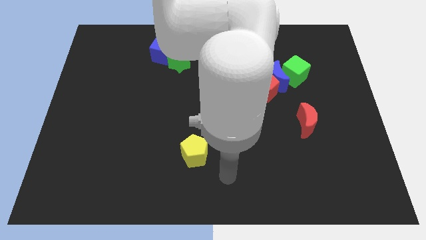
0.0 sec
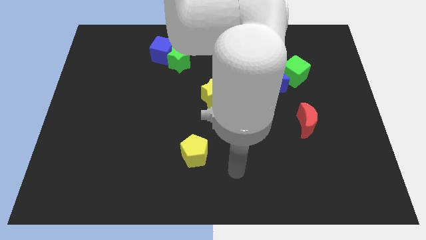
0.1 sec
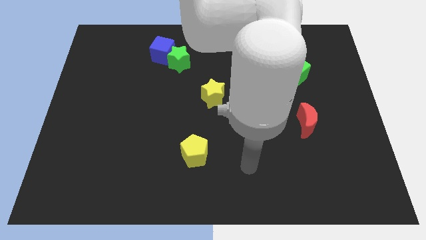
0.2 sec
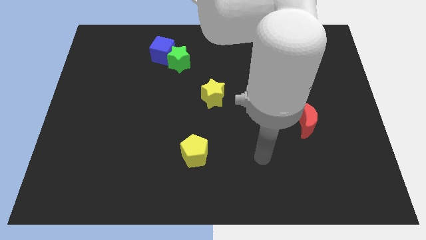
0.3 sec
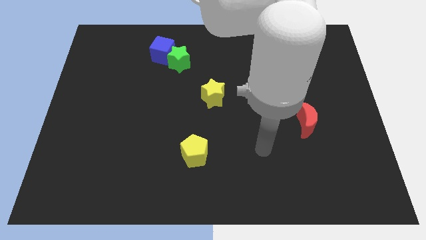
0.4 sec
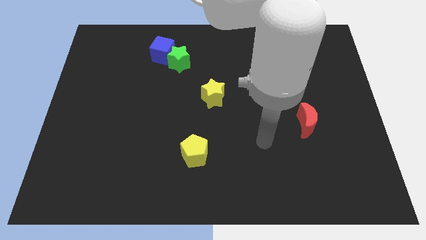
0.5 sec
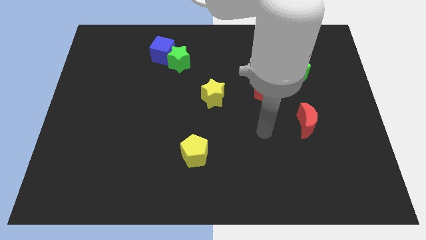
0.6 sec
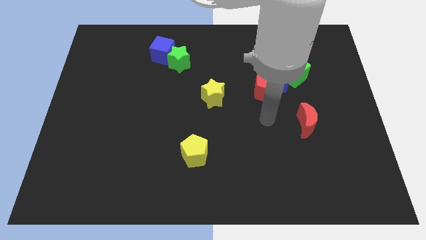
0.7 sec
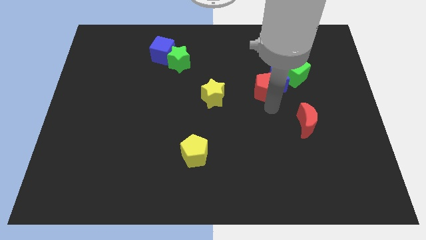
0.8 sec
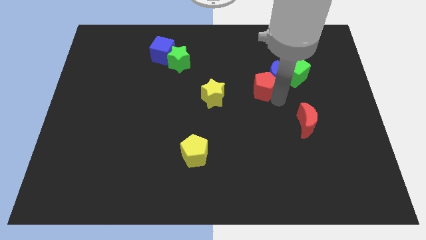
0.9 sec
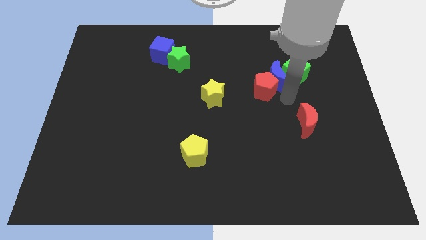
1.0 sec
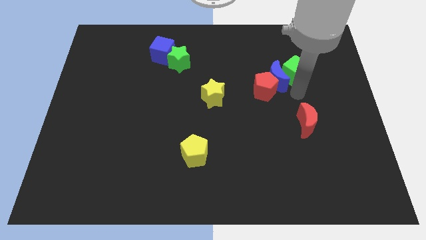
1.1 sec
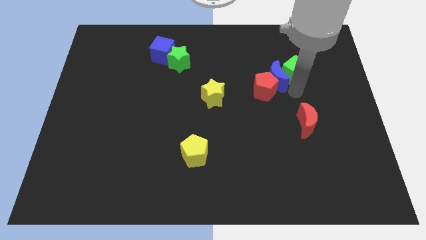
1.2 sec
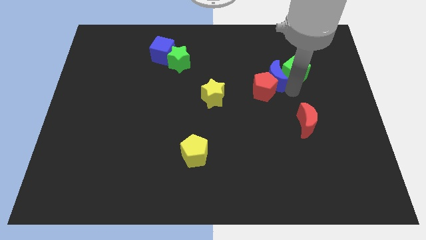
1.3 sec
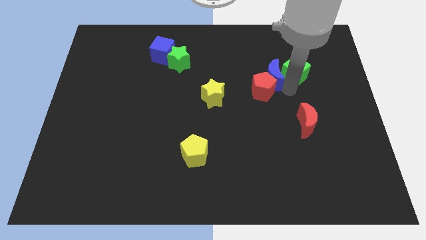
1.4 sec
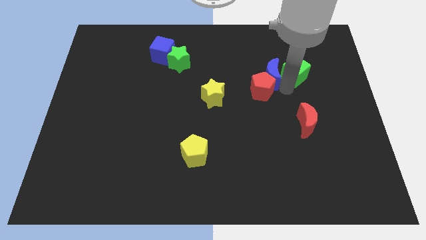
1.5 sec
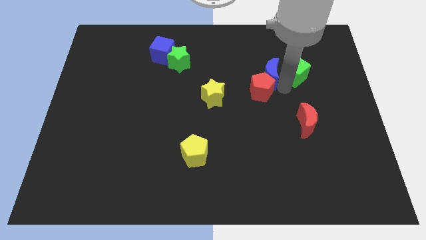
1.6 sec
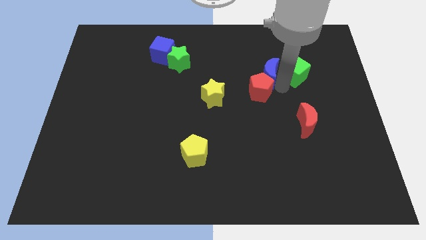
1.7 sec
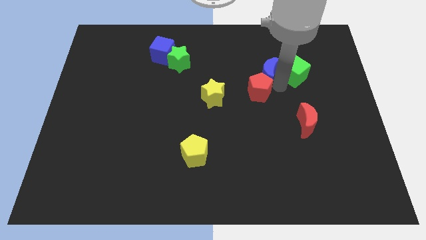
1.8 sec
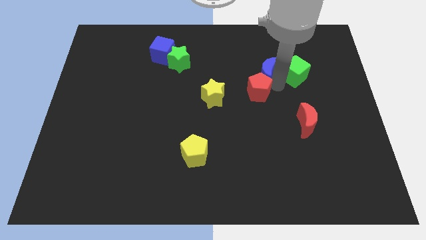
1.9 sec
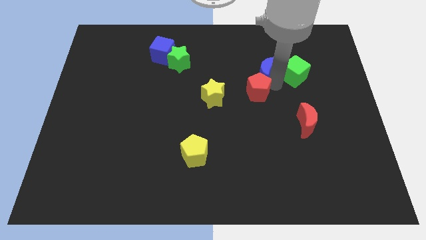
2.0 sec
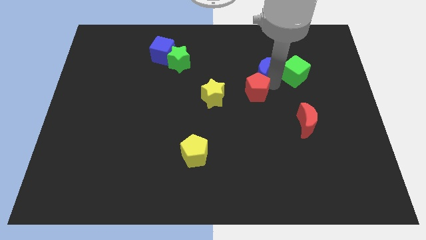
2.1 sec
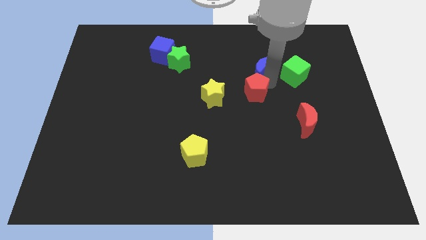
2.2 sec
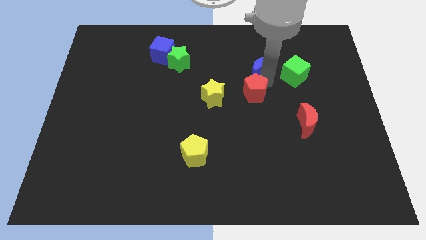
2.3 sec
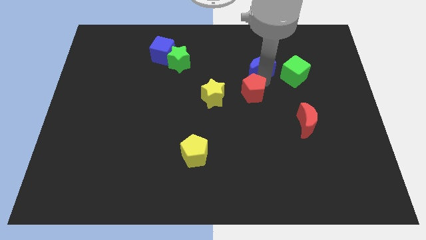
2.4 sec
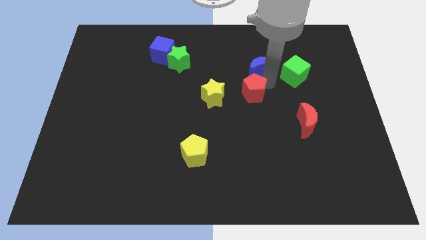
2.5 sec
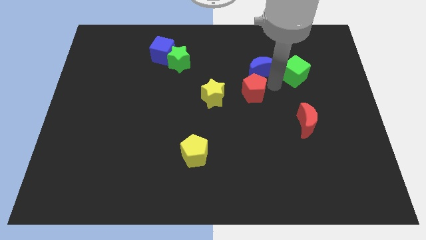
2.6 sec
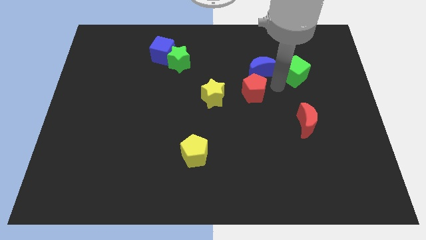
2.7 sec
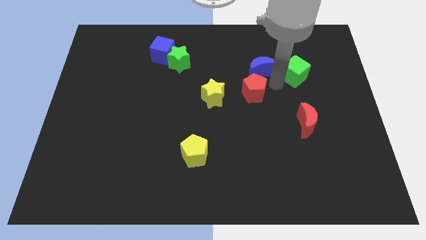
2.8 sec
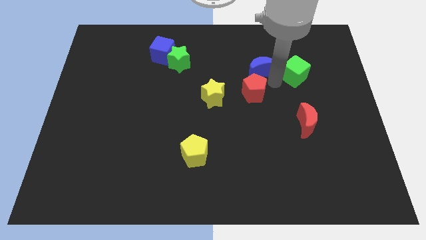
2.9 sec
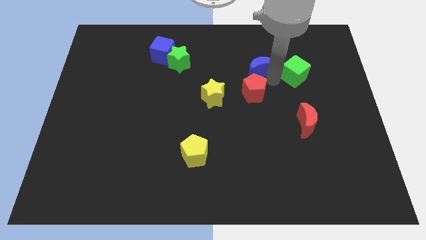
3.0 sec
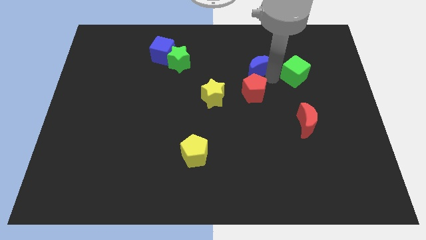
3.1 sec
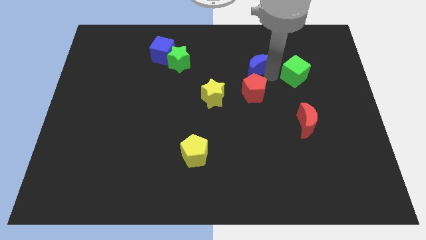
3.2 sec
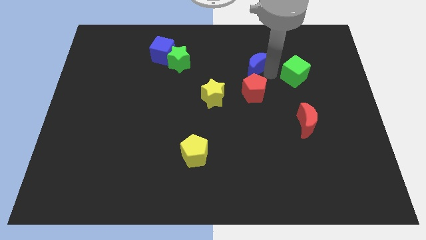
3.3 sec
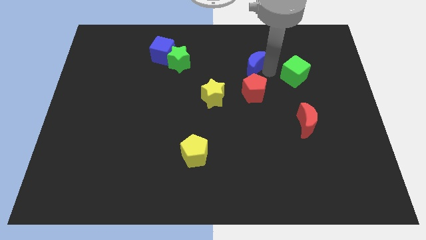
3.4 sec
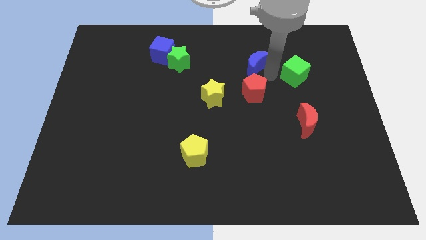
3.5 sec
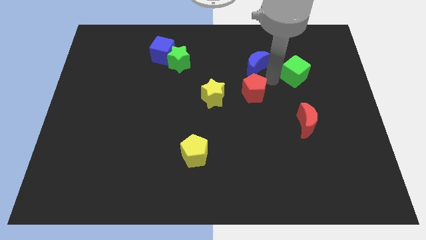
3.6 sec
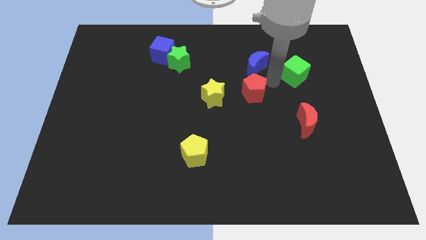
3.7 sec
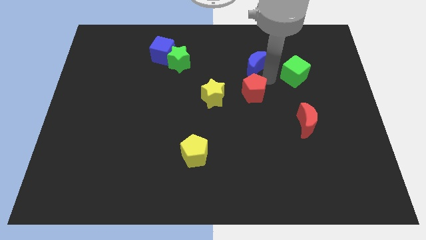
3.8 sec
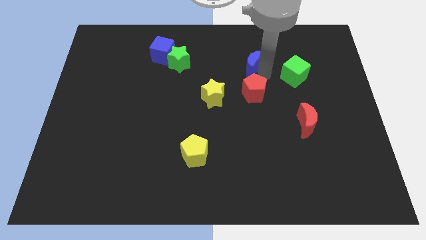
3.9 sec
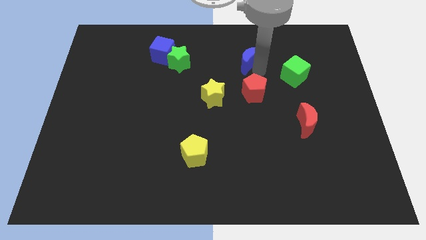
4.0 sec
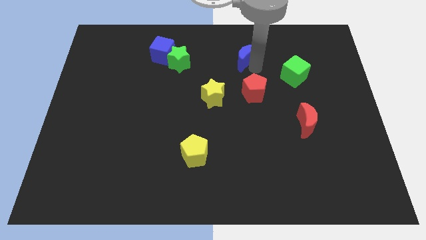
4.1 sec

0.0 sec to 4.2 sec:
move the blue moon away from the red pentagon and green cube

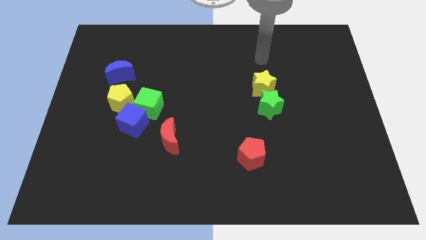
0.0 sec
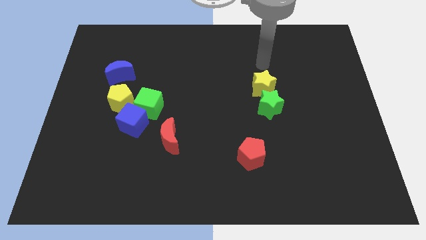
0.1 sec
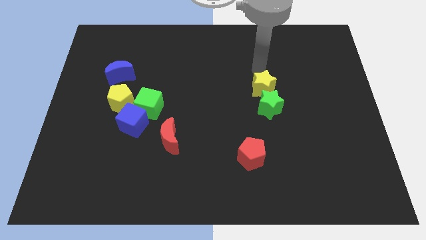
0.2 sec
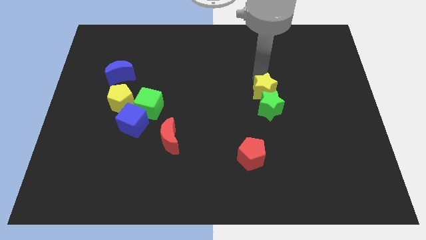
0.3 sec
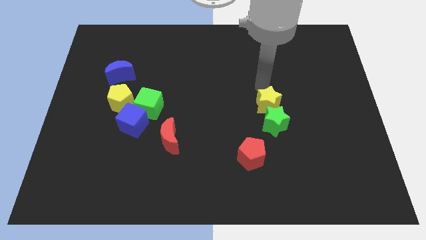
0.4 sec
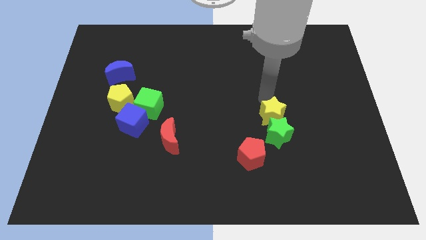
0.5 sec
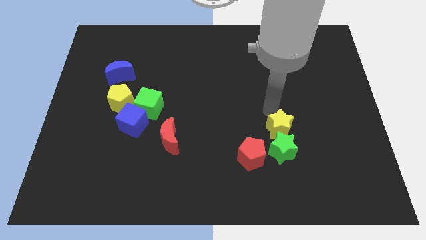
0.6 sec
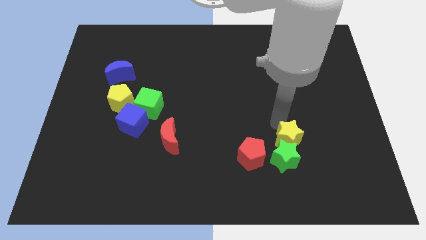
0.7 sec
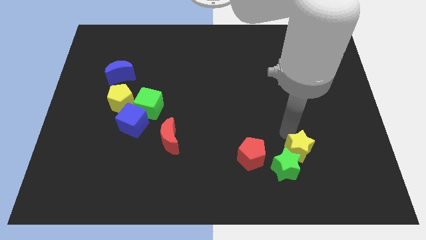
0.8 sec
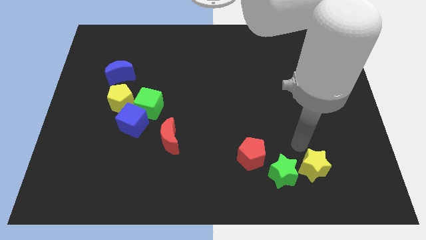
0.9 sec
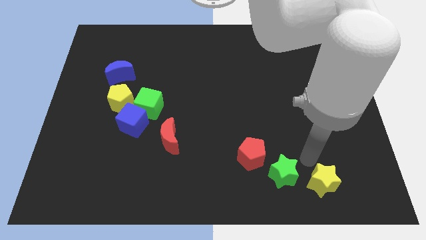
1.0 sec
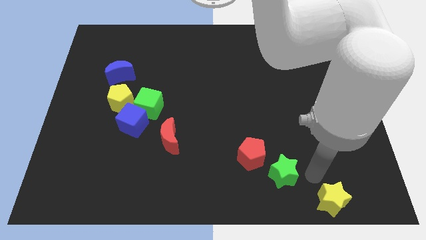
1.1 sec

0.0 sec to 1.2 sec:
pull the green star apart from the yellow star

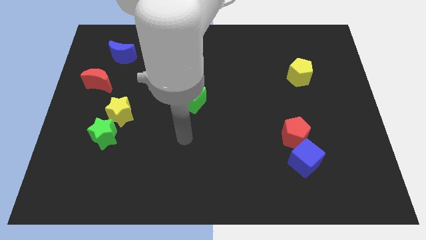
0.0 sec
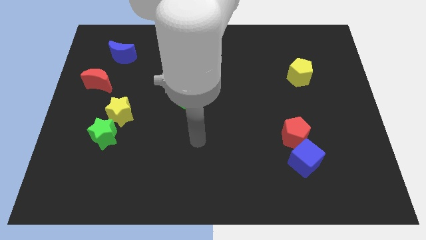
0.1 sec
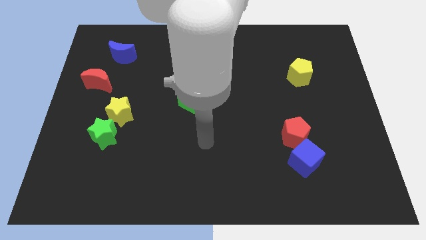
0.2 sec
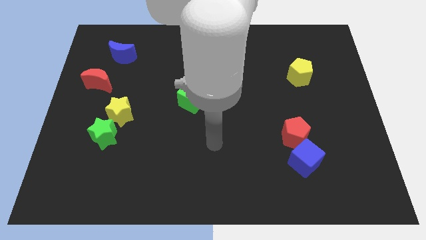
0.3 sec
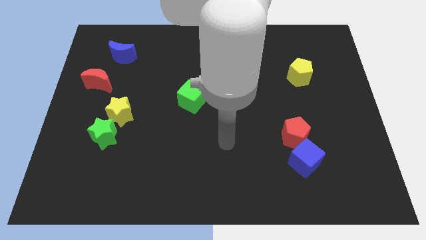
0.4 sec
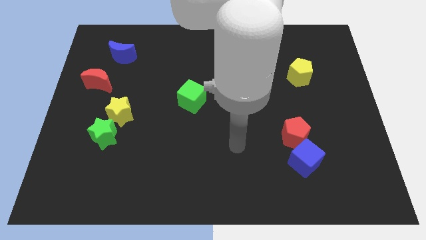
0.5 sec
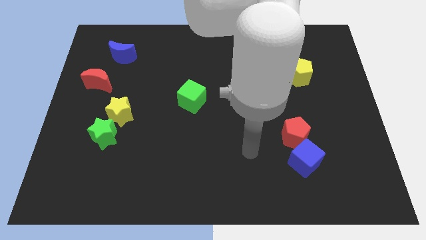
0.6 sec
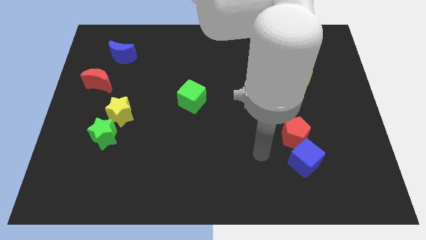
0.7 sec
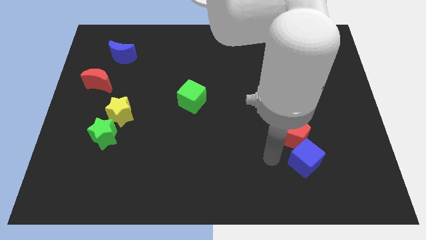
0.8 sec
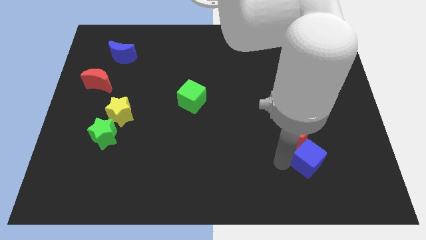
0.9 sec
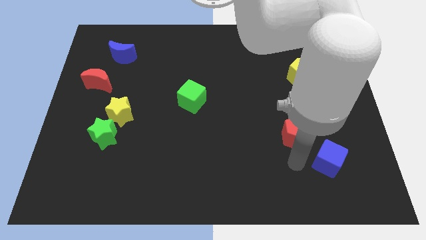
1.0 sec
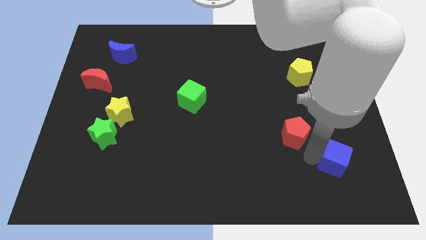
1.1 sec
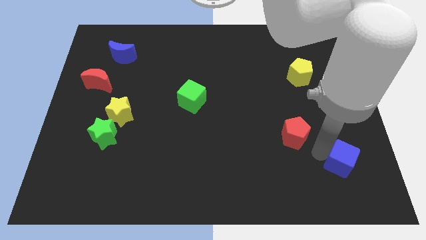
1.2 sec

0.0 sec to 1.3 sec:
move the red pentagon away from the blue cube

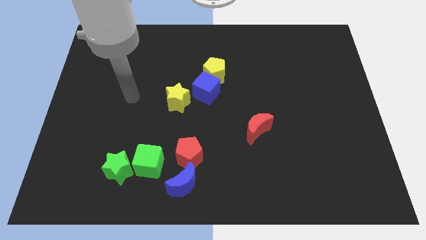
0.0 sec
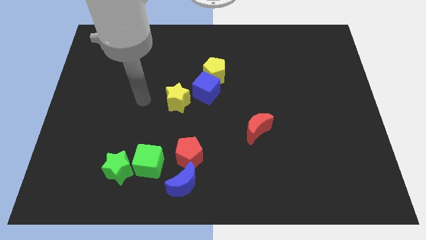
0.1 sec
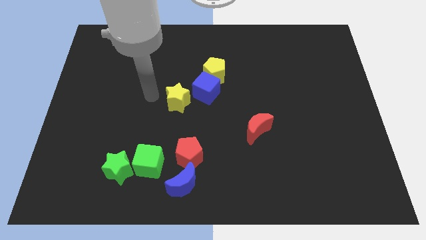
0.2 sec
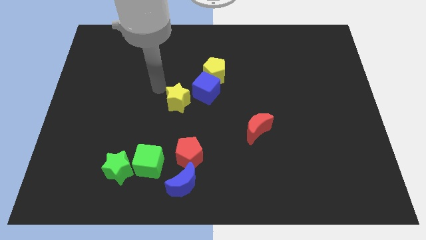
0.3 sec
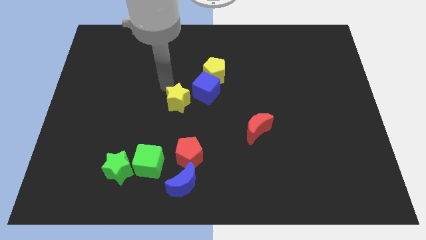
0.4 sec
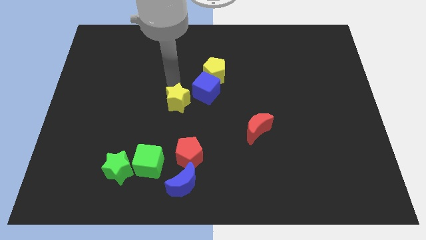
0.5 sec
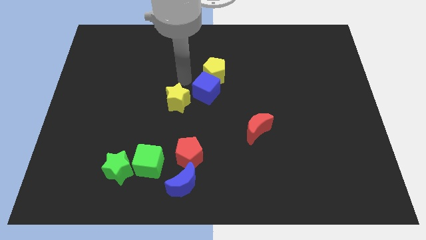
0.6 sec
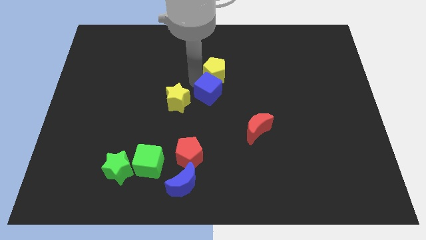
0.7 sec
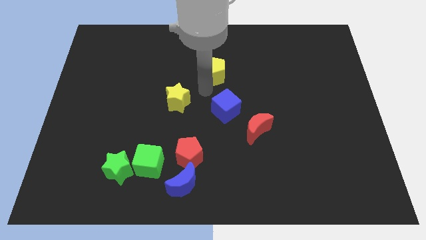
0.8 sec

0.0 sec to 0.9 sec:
separate the yellow pentagon from the blue cube

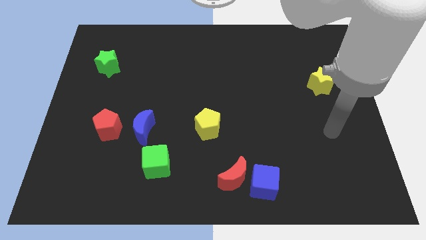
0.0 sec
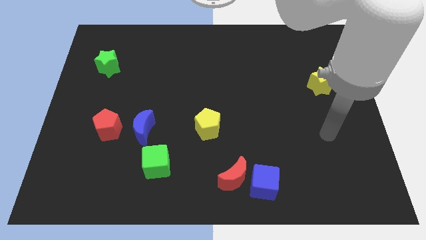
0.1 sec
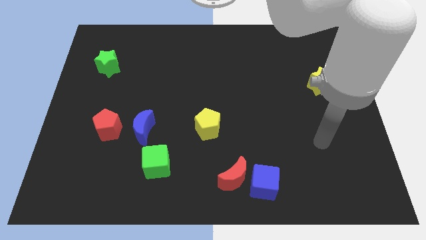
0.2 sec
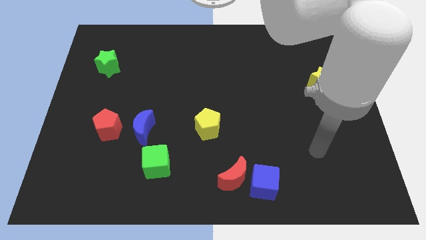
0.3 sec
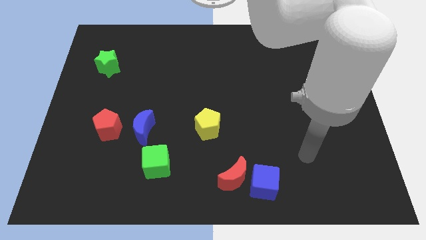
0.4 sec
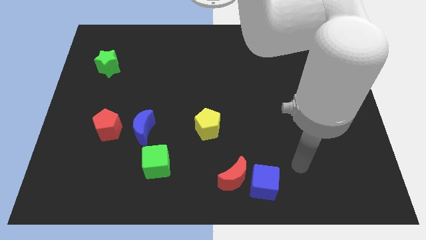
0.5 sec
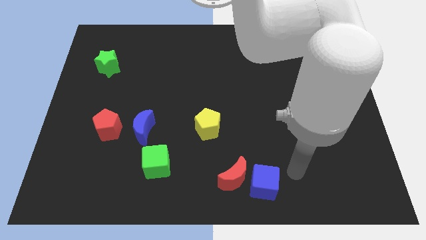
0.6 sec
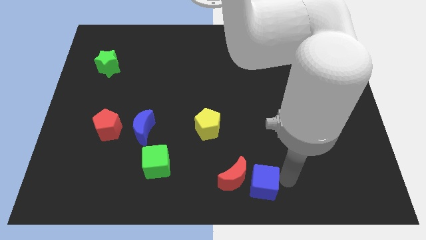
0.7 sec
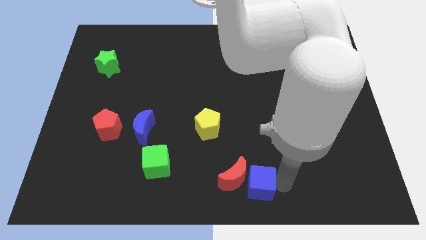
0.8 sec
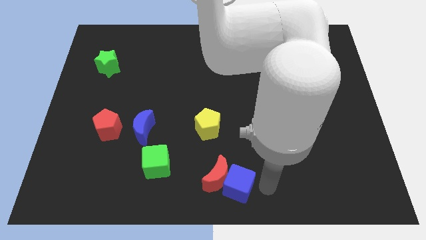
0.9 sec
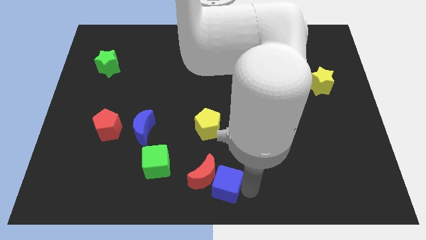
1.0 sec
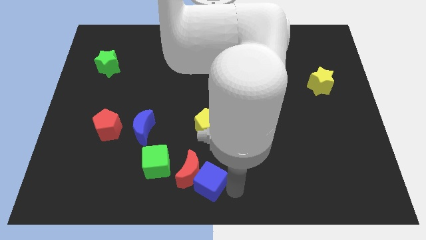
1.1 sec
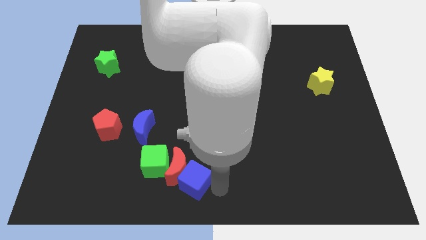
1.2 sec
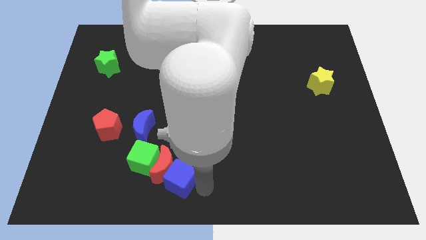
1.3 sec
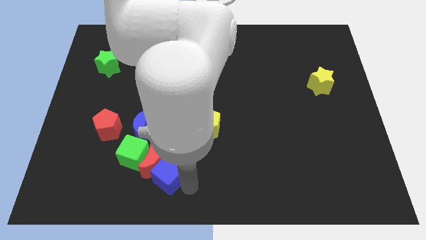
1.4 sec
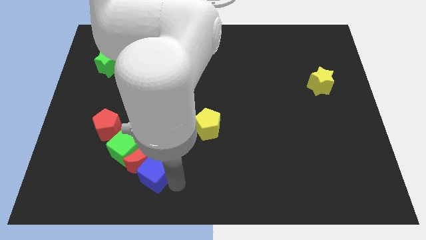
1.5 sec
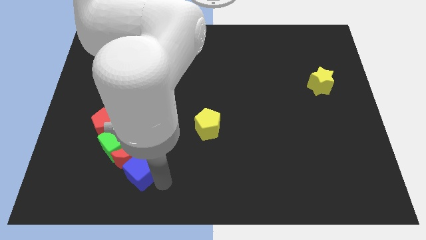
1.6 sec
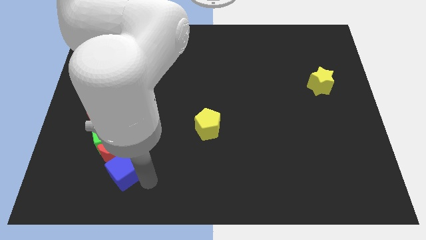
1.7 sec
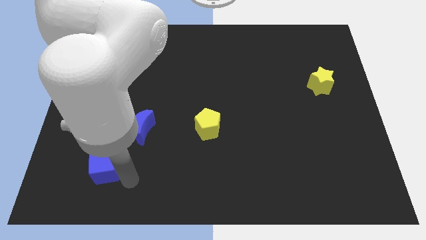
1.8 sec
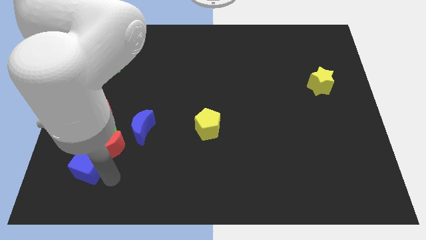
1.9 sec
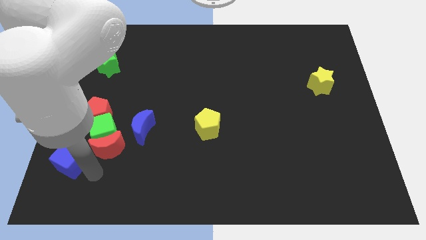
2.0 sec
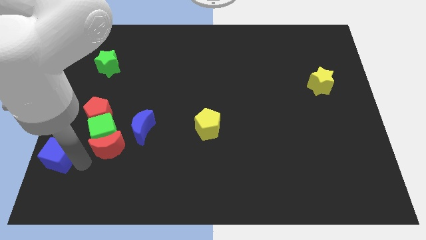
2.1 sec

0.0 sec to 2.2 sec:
separate the red moon from the blue cube
